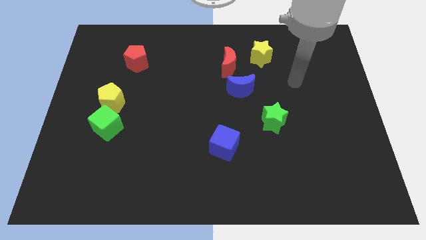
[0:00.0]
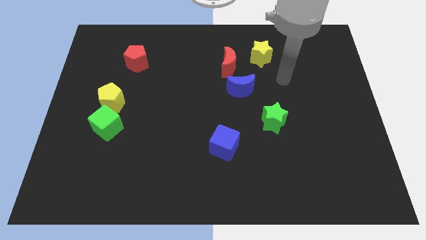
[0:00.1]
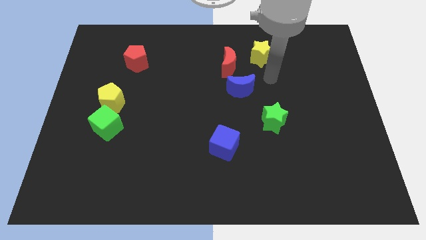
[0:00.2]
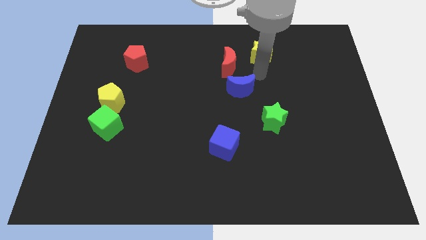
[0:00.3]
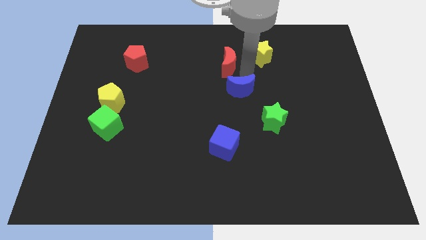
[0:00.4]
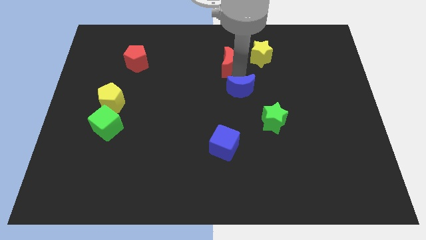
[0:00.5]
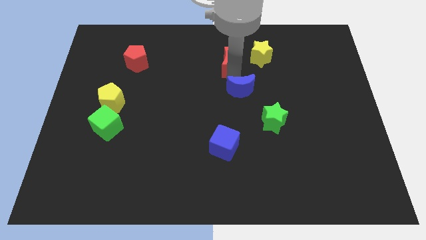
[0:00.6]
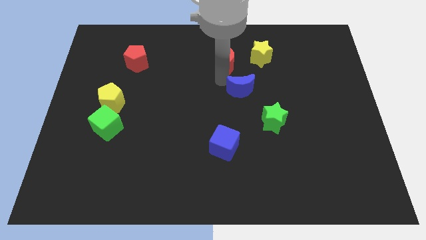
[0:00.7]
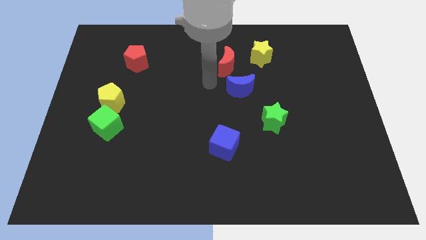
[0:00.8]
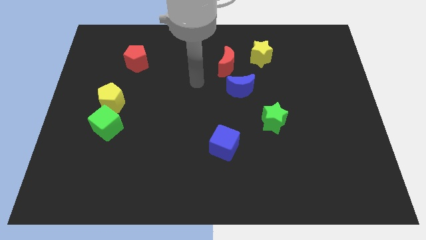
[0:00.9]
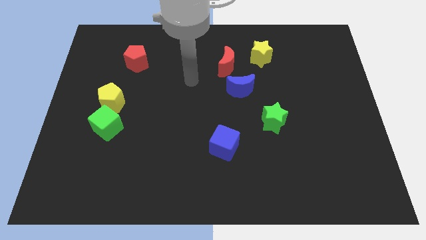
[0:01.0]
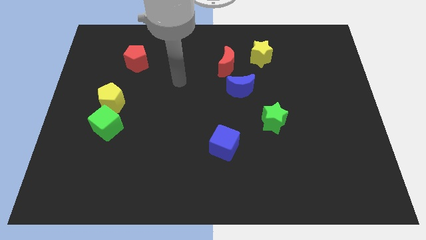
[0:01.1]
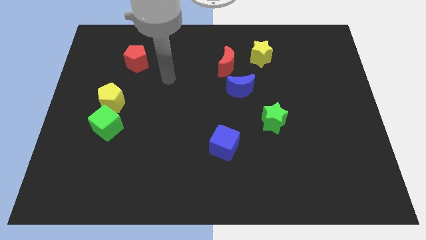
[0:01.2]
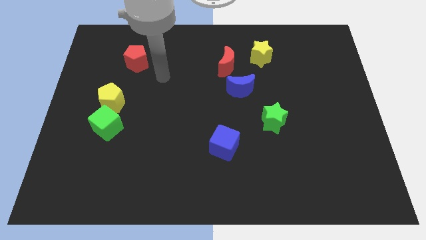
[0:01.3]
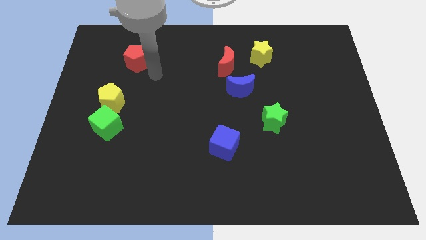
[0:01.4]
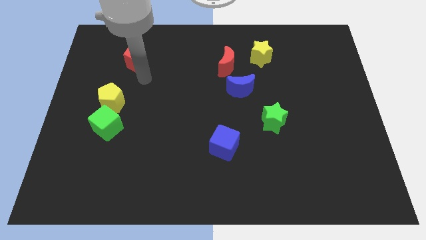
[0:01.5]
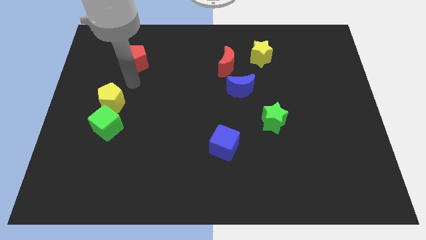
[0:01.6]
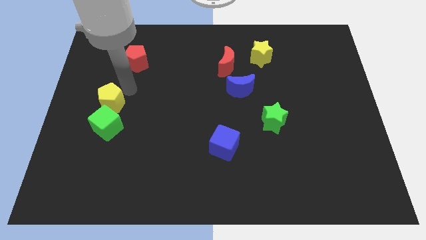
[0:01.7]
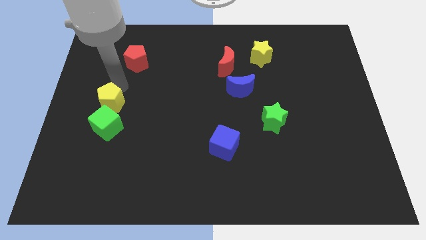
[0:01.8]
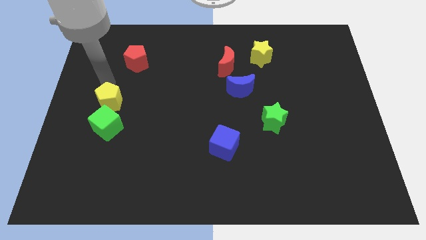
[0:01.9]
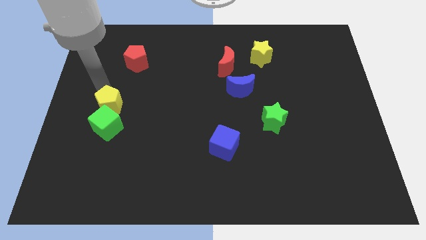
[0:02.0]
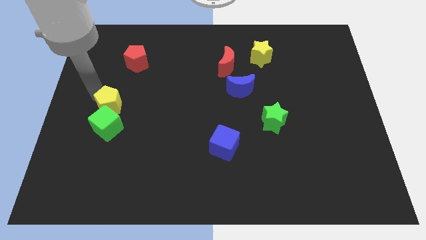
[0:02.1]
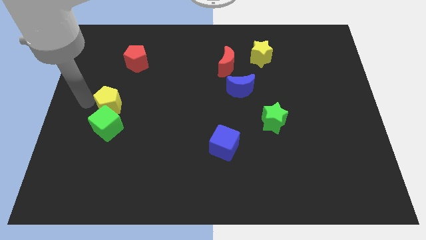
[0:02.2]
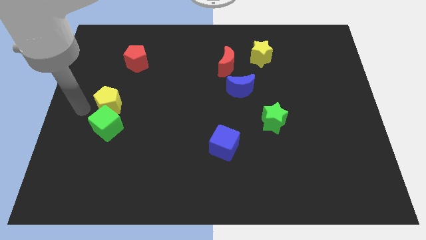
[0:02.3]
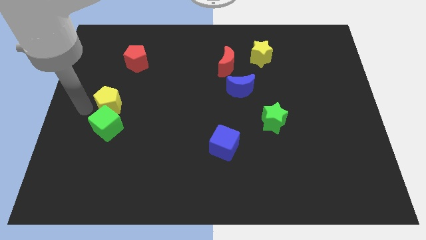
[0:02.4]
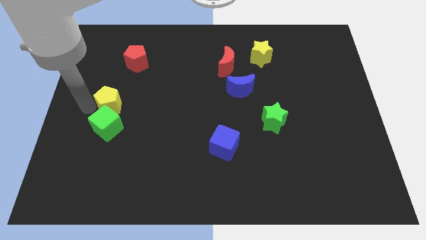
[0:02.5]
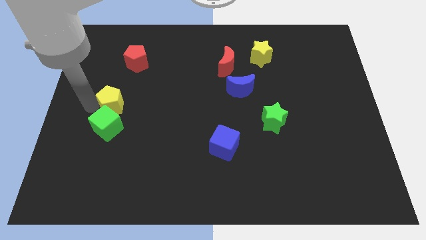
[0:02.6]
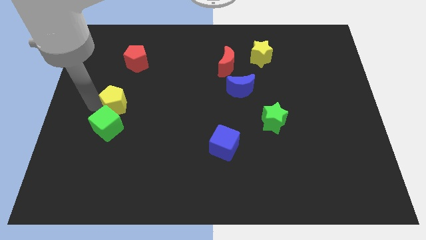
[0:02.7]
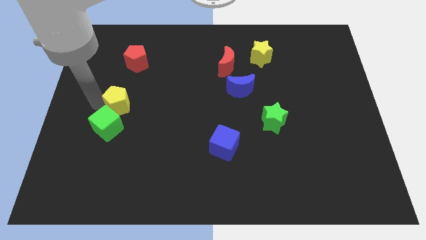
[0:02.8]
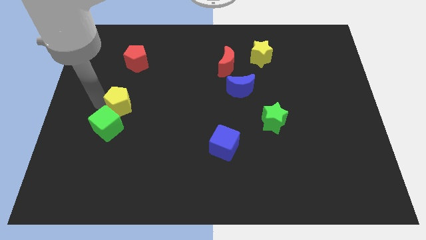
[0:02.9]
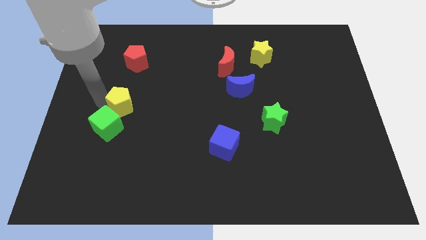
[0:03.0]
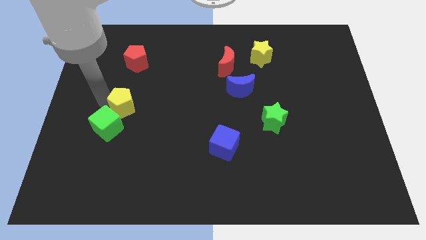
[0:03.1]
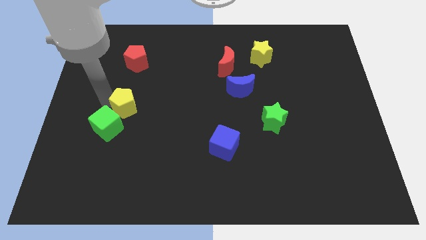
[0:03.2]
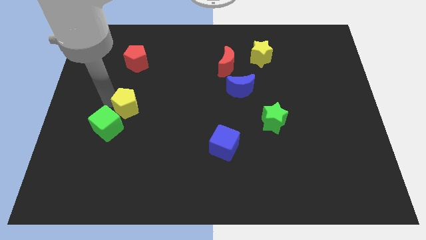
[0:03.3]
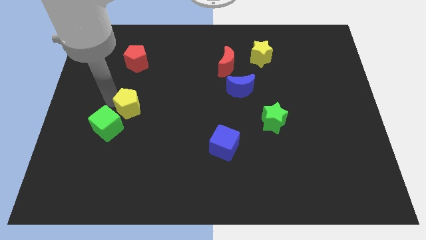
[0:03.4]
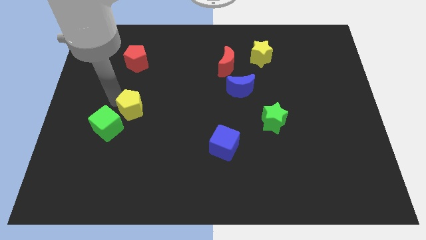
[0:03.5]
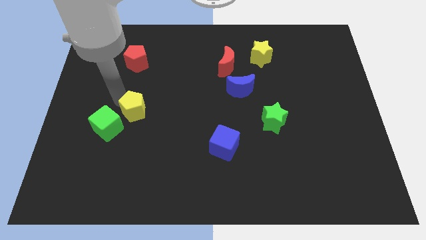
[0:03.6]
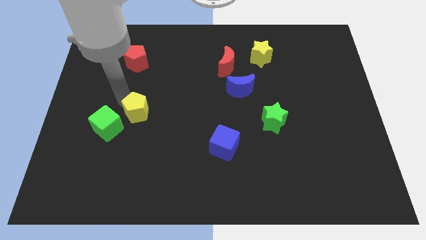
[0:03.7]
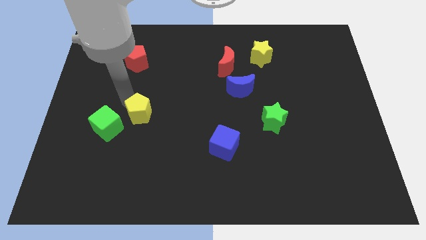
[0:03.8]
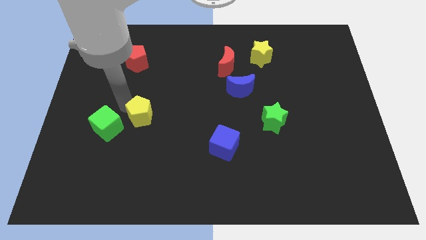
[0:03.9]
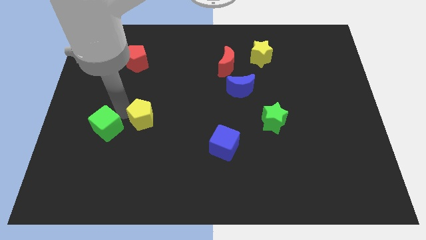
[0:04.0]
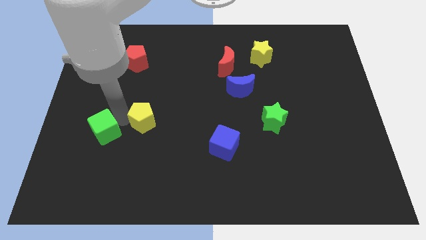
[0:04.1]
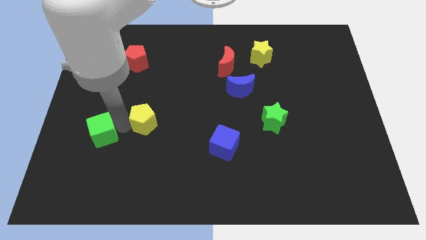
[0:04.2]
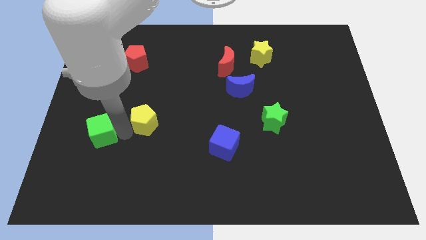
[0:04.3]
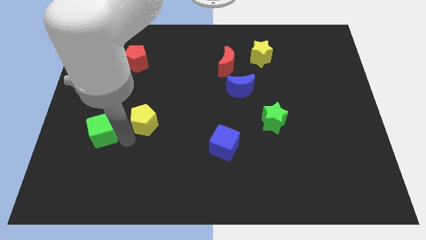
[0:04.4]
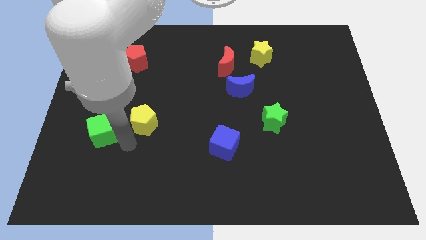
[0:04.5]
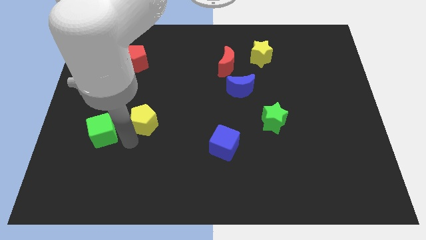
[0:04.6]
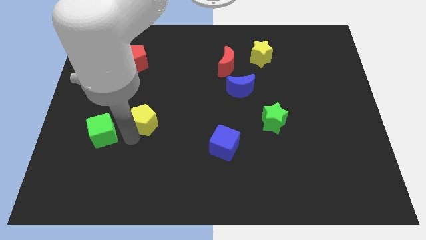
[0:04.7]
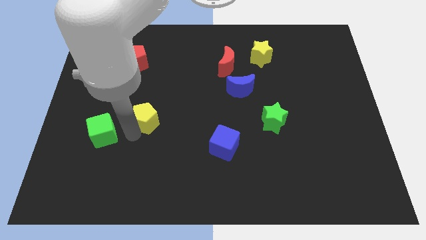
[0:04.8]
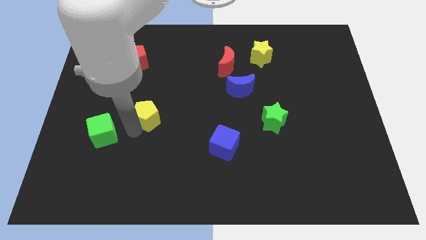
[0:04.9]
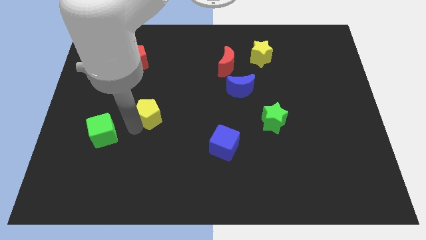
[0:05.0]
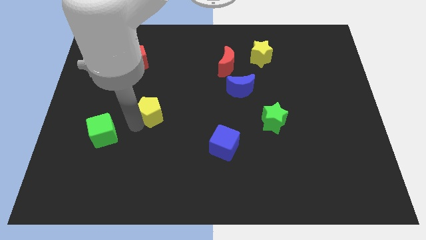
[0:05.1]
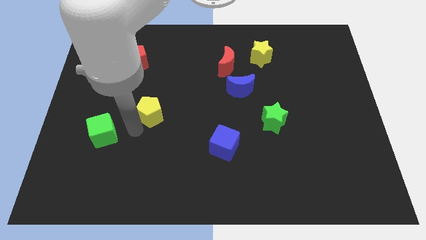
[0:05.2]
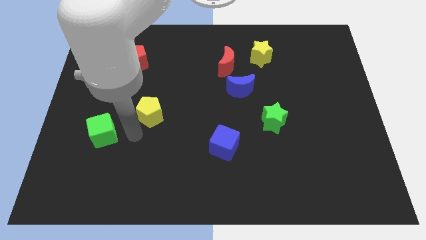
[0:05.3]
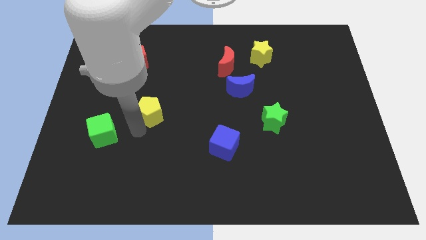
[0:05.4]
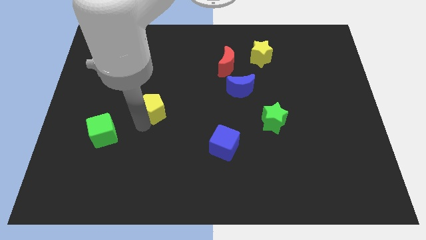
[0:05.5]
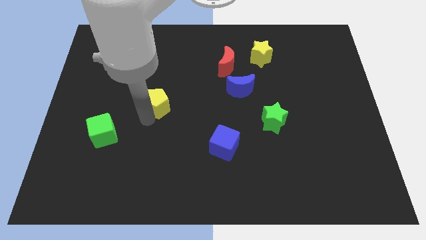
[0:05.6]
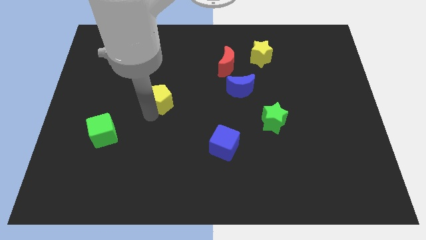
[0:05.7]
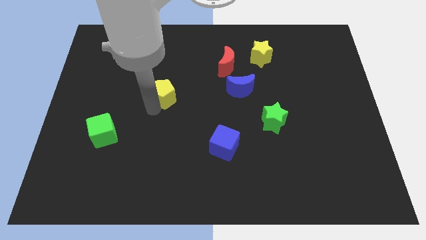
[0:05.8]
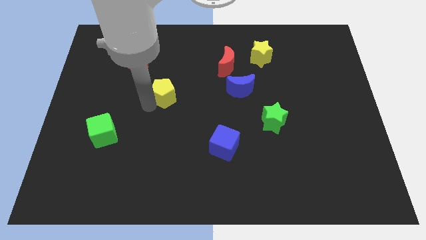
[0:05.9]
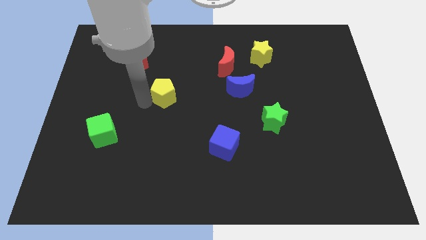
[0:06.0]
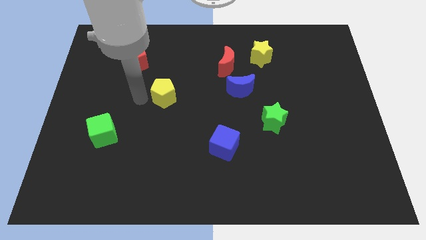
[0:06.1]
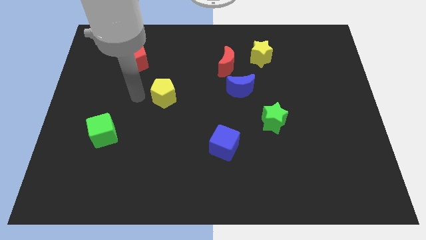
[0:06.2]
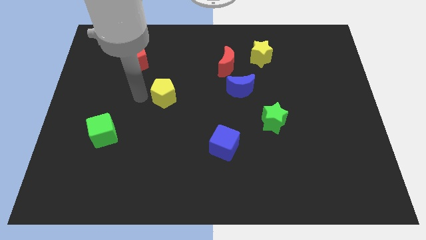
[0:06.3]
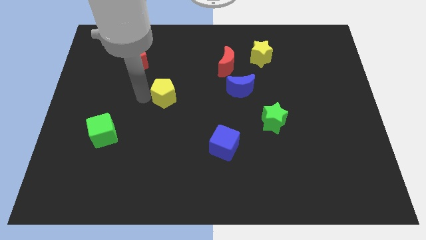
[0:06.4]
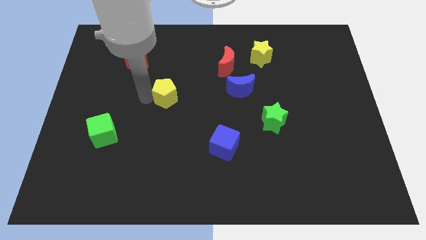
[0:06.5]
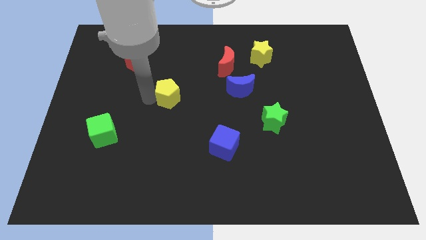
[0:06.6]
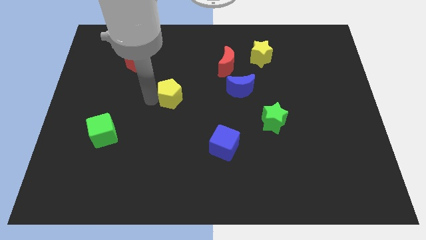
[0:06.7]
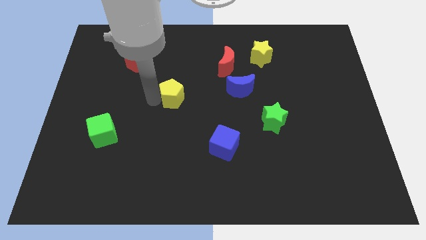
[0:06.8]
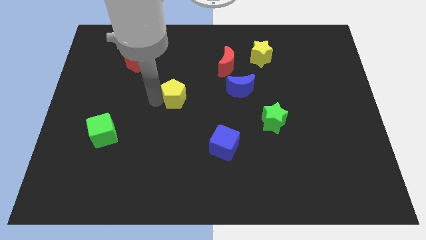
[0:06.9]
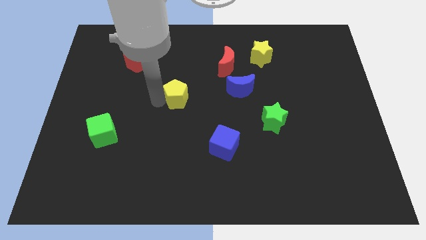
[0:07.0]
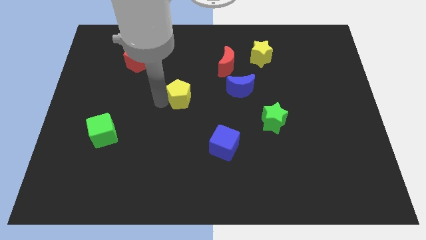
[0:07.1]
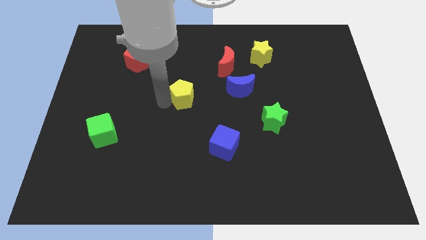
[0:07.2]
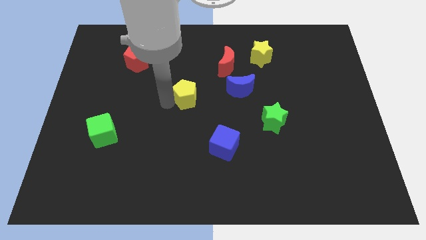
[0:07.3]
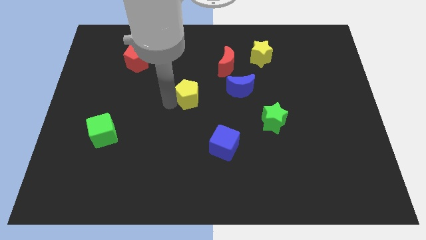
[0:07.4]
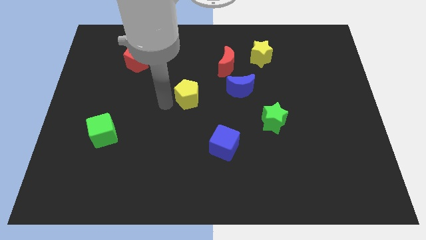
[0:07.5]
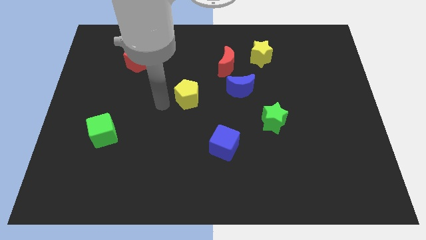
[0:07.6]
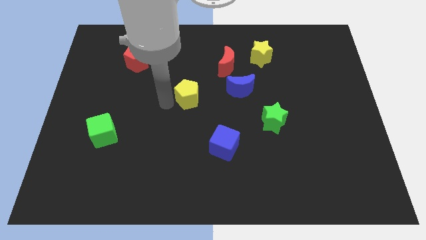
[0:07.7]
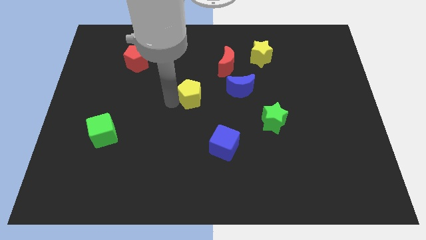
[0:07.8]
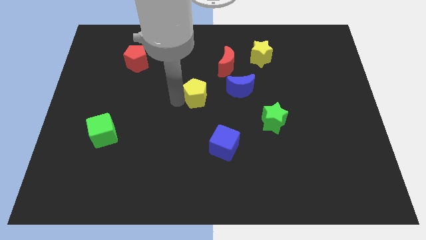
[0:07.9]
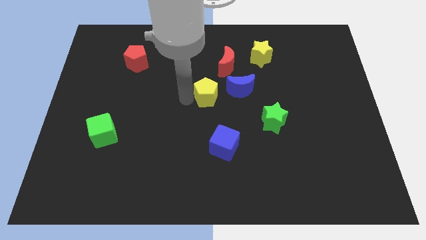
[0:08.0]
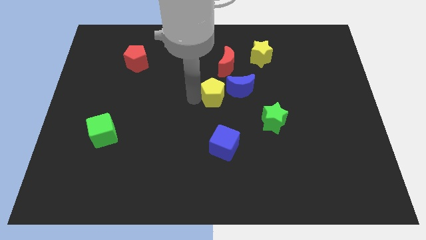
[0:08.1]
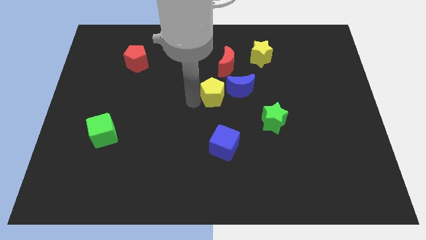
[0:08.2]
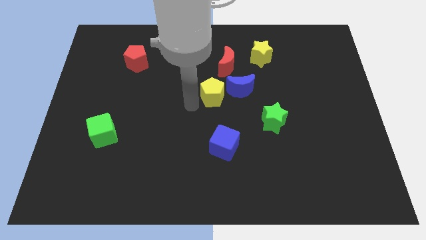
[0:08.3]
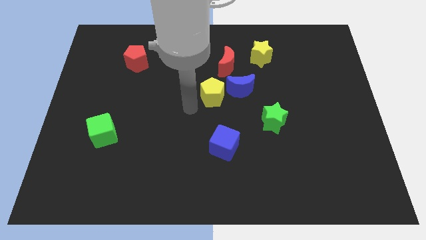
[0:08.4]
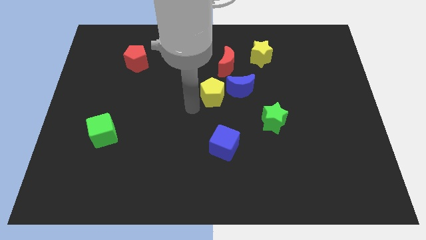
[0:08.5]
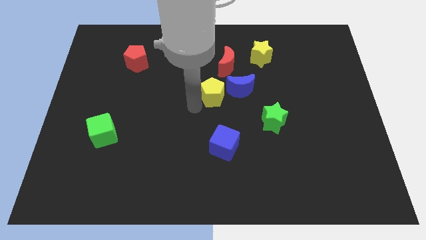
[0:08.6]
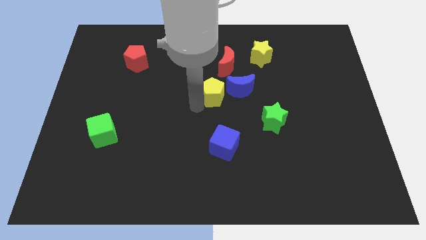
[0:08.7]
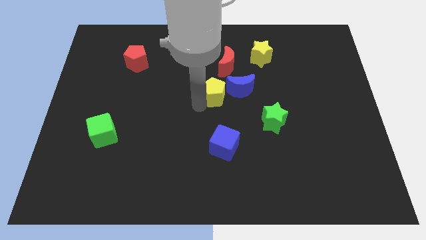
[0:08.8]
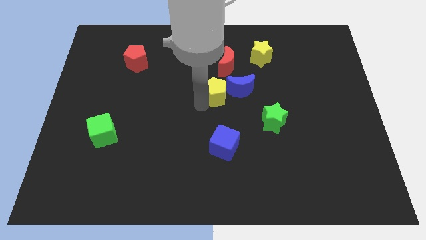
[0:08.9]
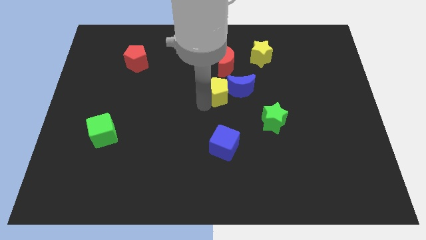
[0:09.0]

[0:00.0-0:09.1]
slide the yellow pentagon close to the blue moon
